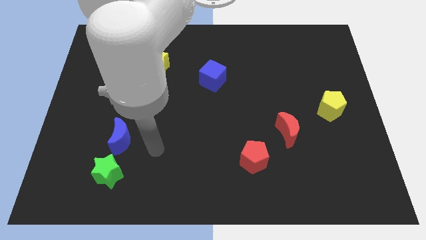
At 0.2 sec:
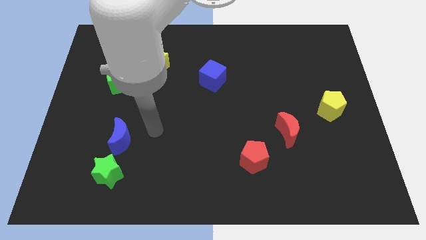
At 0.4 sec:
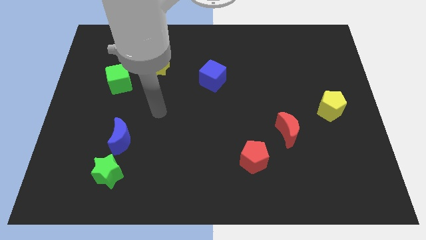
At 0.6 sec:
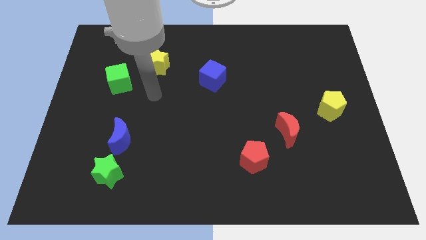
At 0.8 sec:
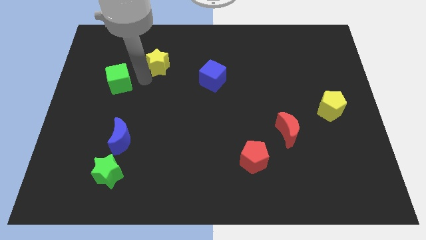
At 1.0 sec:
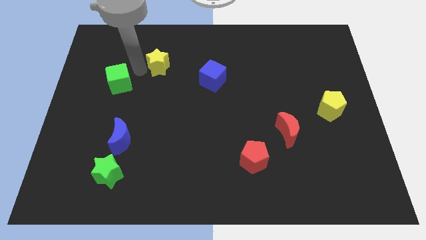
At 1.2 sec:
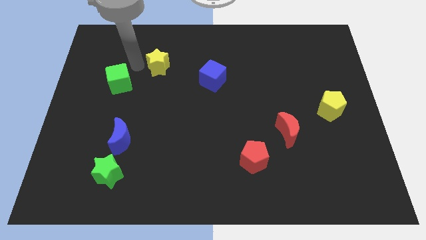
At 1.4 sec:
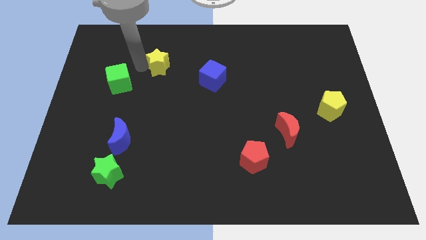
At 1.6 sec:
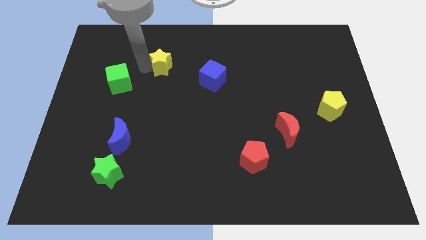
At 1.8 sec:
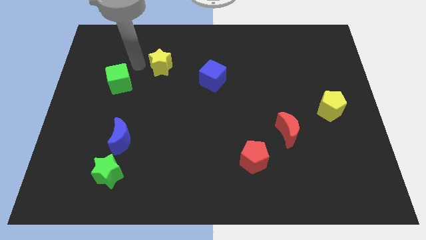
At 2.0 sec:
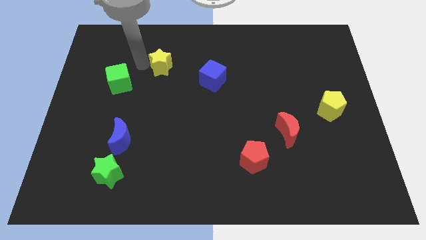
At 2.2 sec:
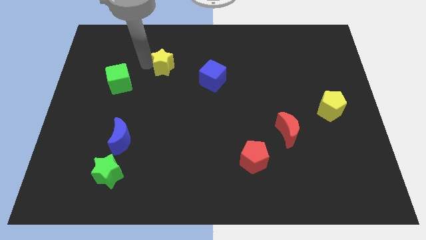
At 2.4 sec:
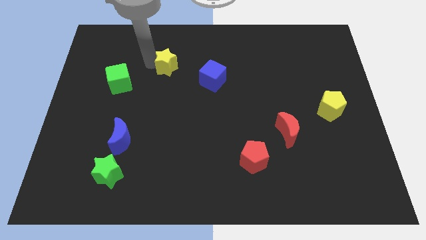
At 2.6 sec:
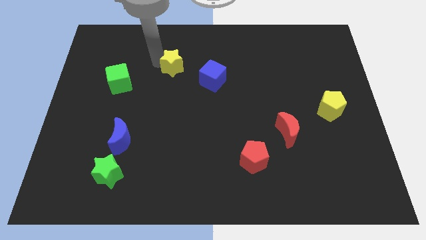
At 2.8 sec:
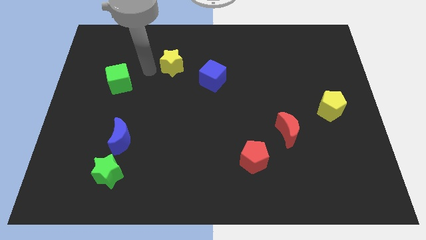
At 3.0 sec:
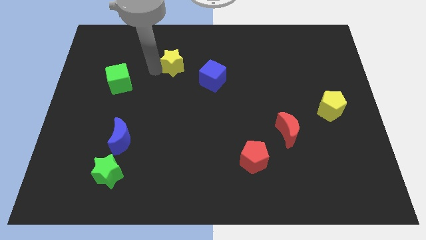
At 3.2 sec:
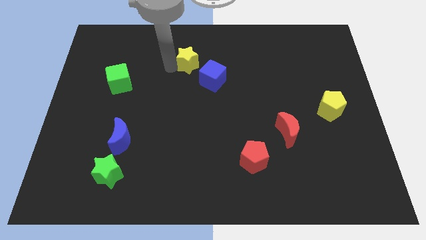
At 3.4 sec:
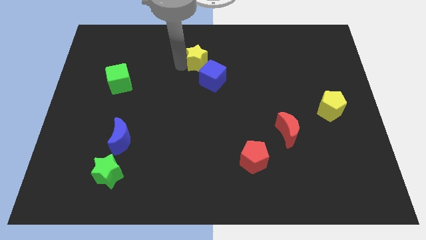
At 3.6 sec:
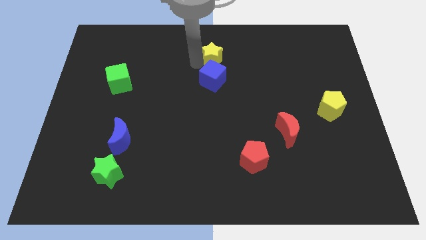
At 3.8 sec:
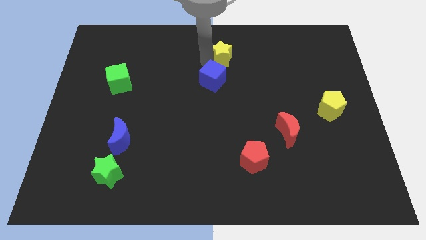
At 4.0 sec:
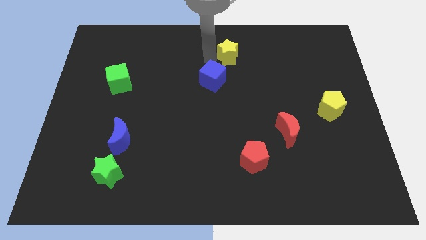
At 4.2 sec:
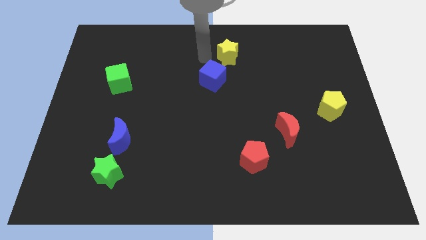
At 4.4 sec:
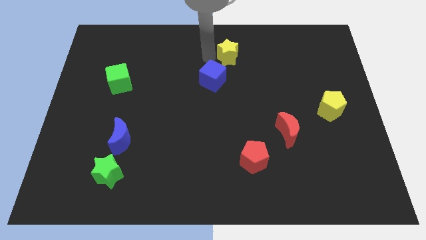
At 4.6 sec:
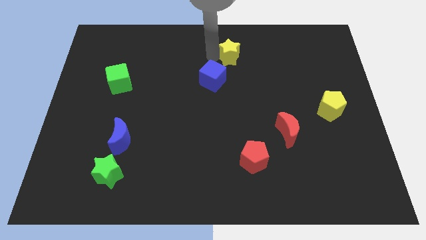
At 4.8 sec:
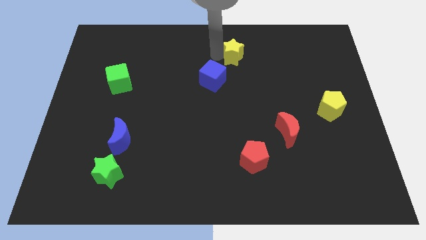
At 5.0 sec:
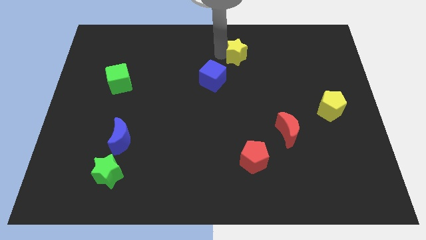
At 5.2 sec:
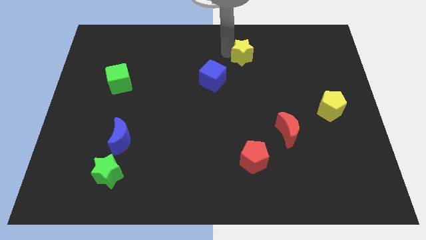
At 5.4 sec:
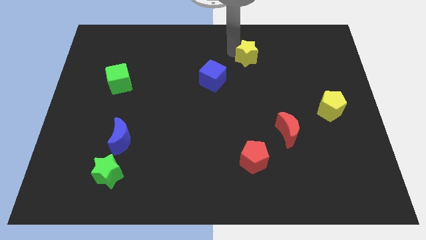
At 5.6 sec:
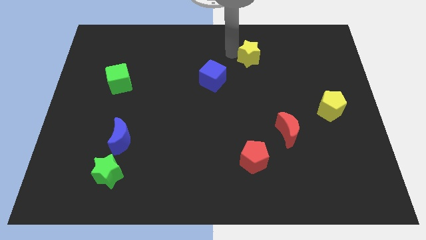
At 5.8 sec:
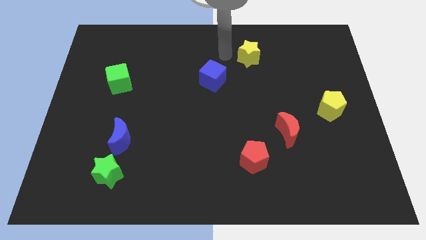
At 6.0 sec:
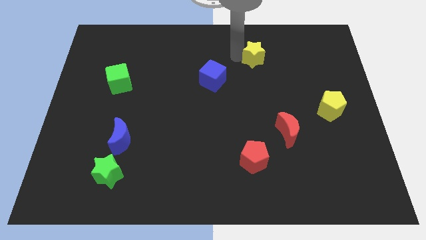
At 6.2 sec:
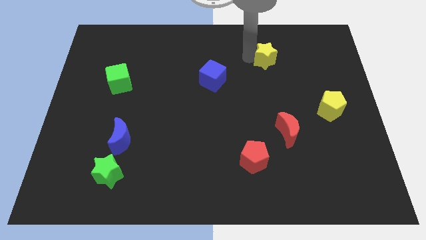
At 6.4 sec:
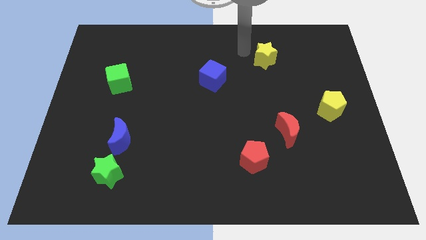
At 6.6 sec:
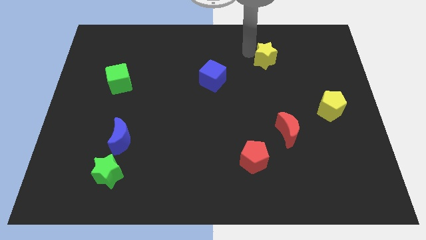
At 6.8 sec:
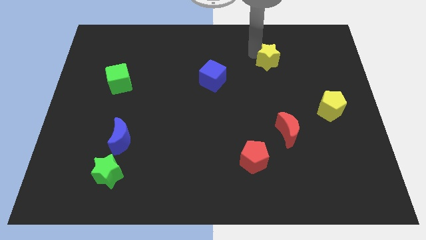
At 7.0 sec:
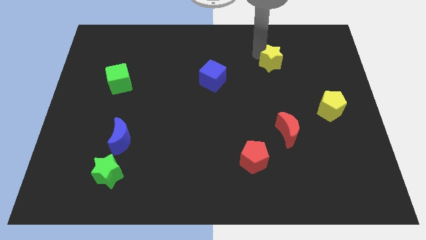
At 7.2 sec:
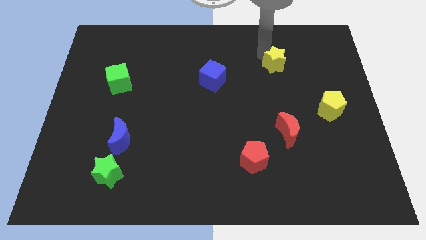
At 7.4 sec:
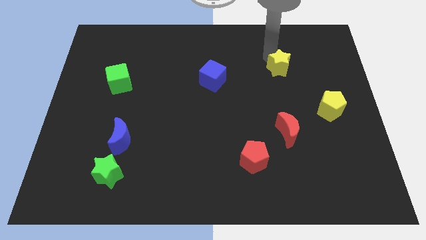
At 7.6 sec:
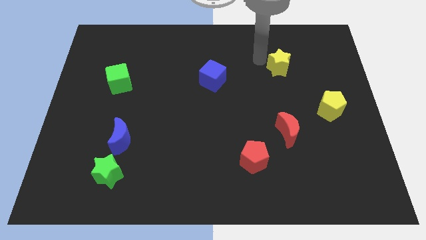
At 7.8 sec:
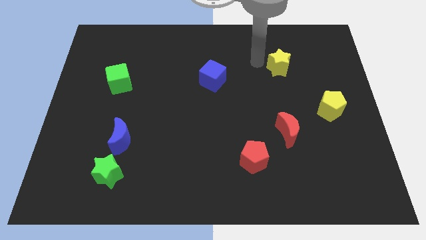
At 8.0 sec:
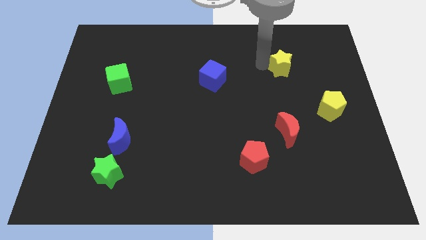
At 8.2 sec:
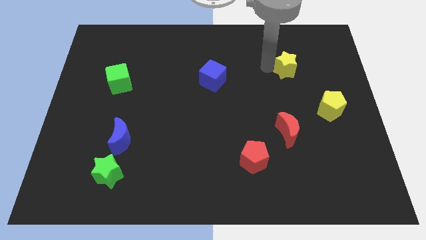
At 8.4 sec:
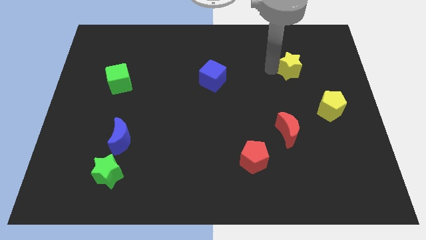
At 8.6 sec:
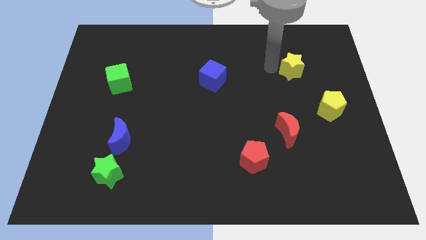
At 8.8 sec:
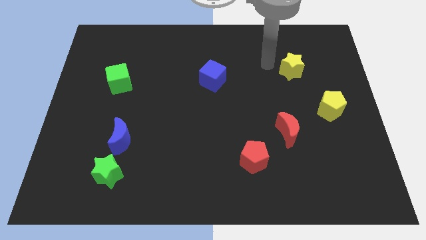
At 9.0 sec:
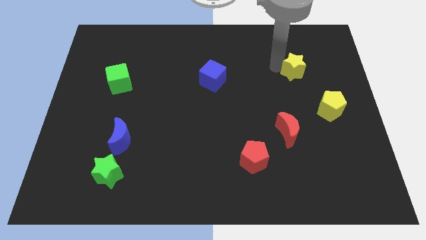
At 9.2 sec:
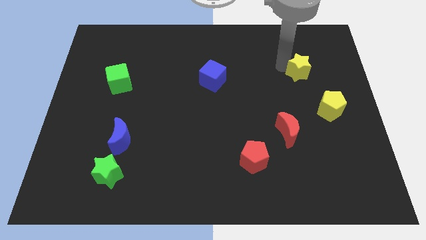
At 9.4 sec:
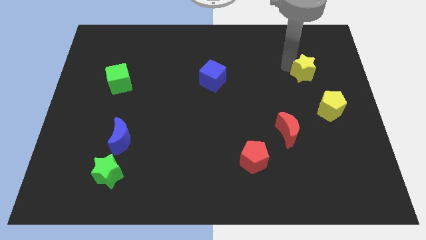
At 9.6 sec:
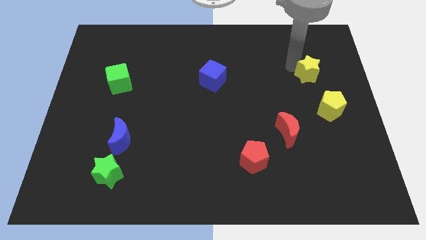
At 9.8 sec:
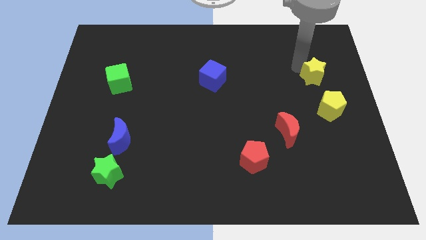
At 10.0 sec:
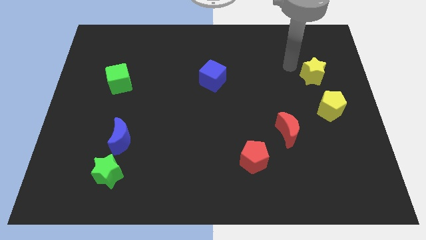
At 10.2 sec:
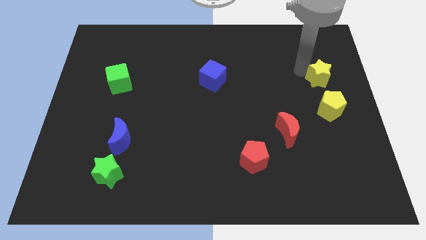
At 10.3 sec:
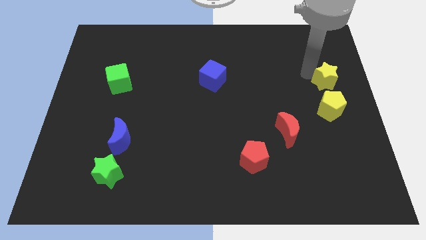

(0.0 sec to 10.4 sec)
slide the yellow star to the right side of the board
